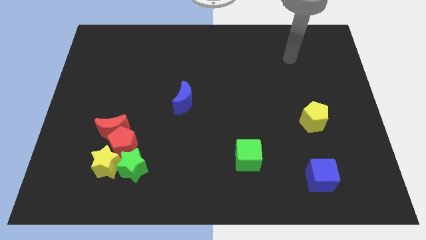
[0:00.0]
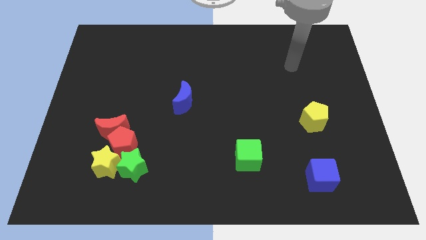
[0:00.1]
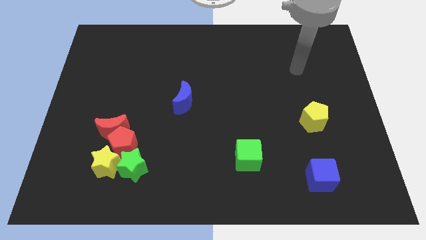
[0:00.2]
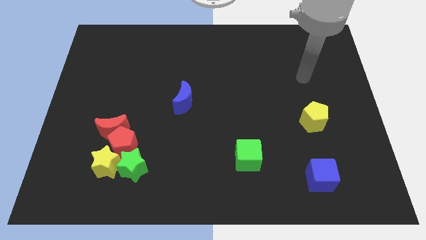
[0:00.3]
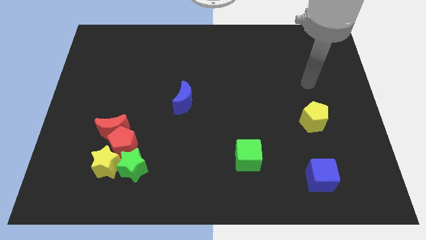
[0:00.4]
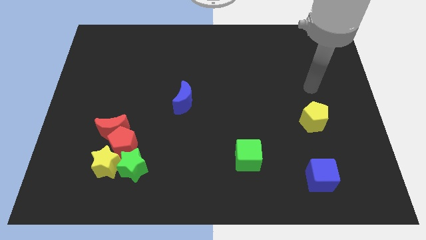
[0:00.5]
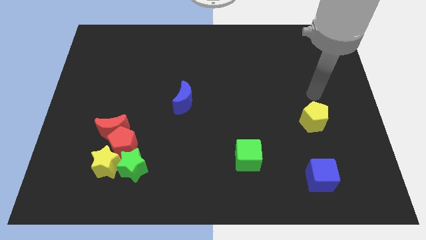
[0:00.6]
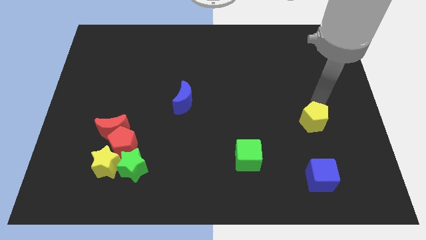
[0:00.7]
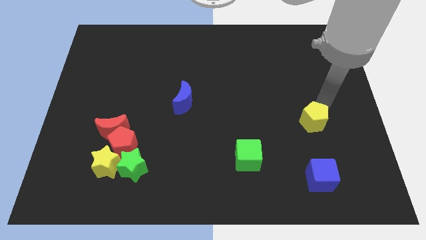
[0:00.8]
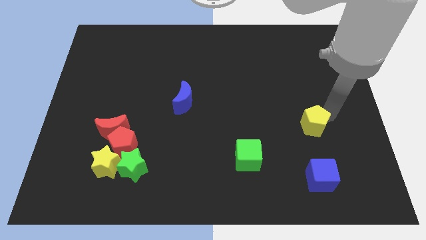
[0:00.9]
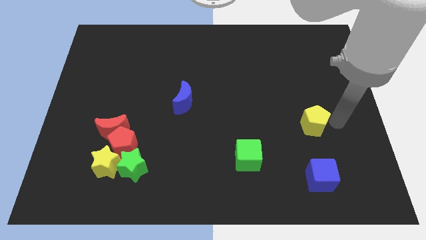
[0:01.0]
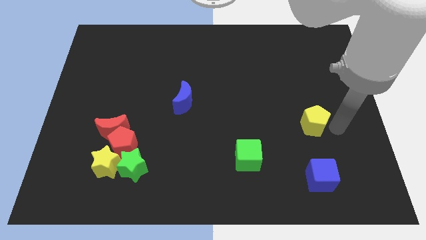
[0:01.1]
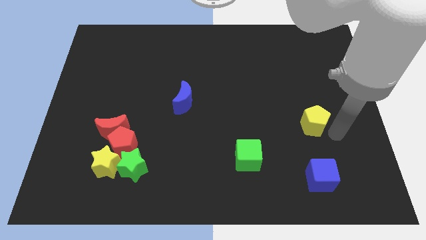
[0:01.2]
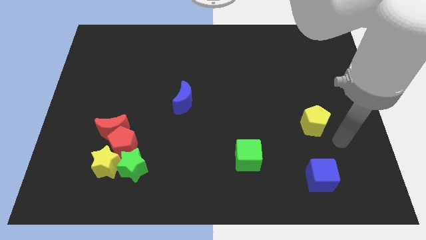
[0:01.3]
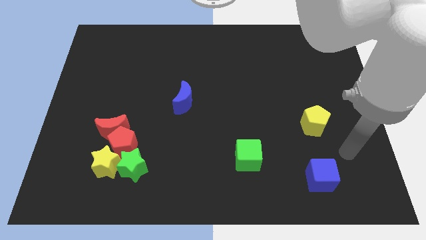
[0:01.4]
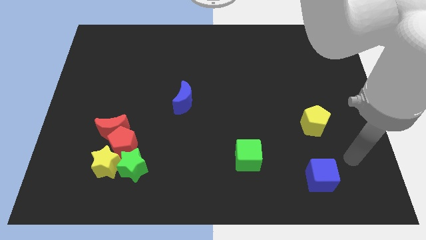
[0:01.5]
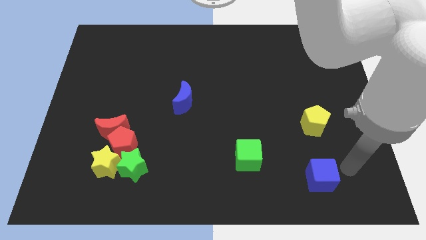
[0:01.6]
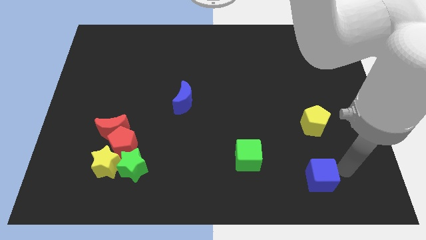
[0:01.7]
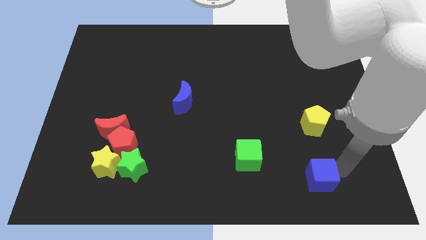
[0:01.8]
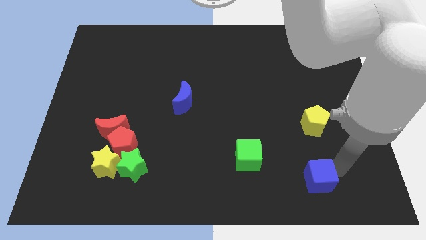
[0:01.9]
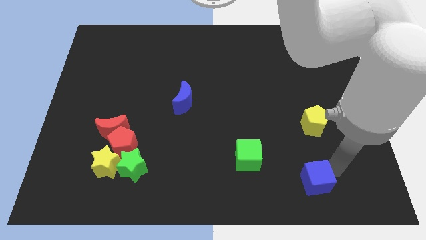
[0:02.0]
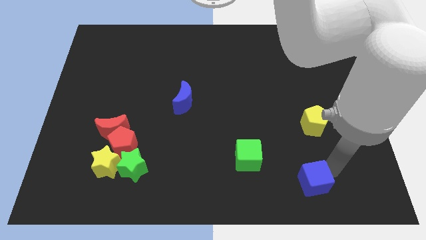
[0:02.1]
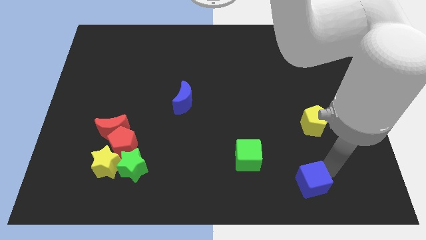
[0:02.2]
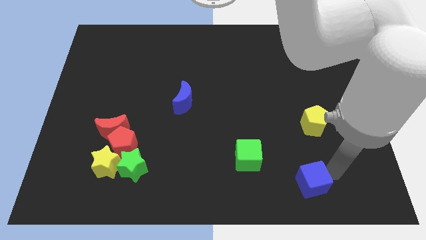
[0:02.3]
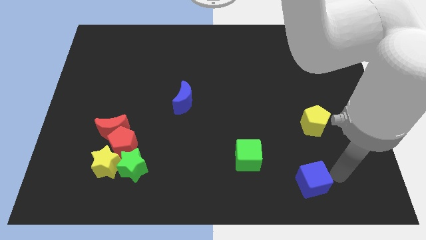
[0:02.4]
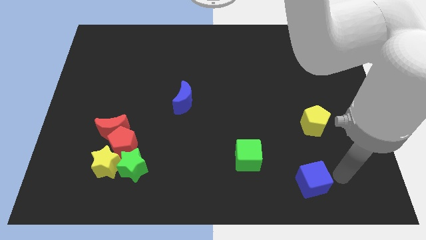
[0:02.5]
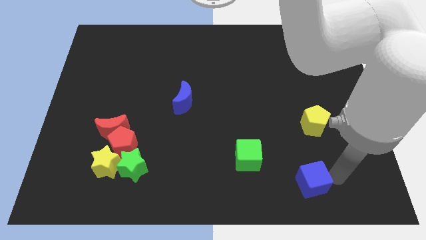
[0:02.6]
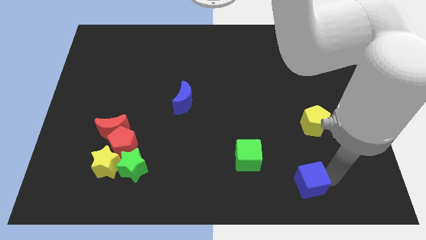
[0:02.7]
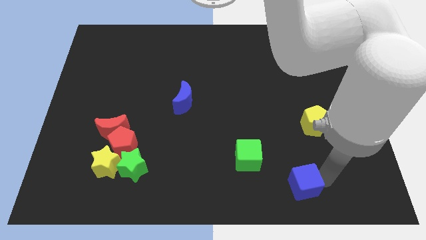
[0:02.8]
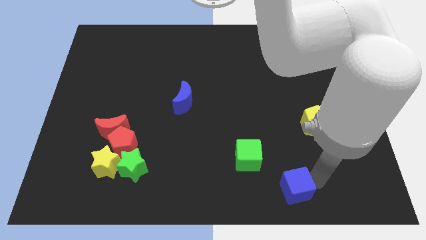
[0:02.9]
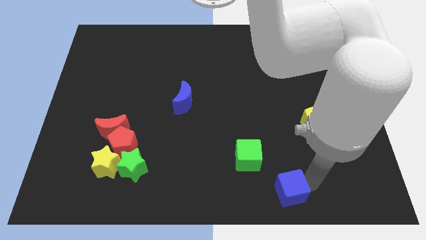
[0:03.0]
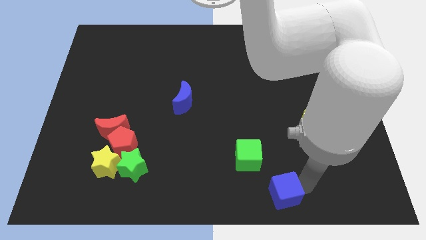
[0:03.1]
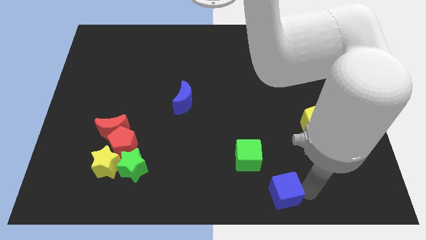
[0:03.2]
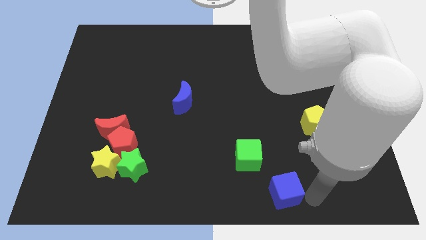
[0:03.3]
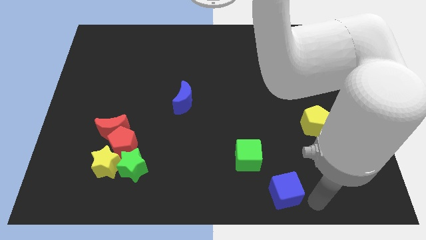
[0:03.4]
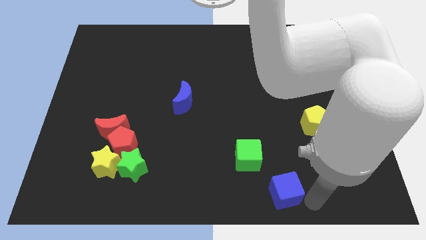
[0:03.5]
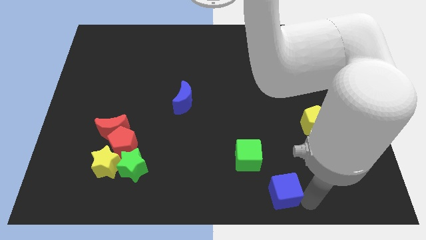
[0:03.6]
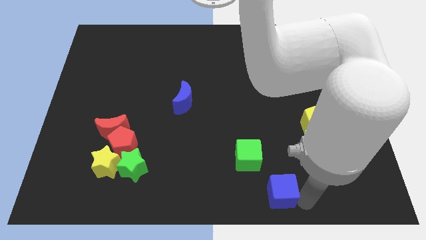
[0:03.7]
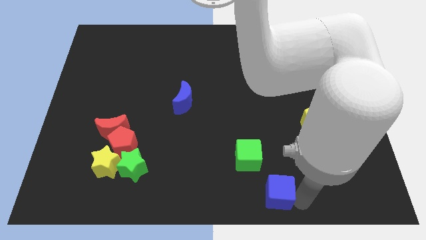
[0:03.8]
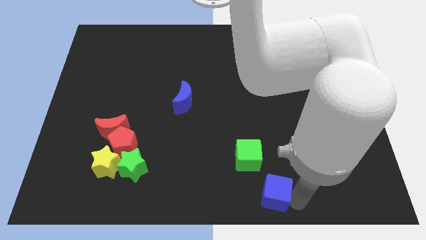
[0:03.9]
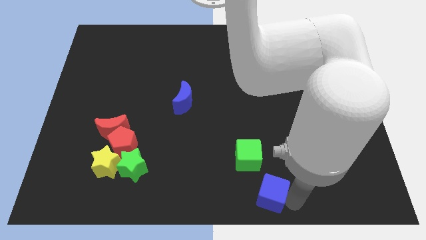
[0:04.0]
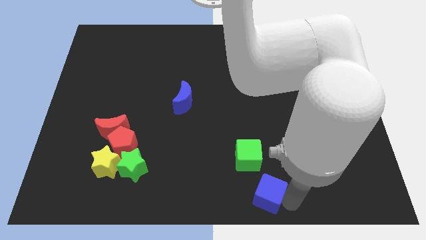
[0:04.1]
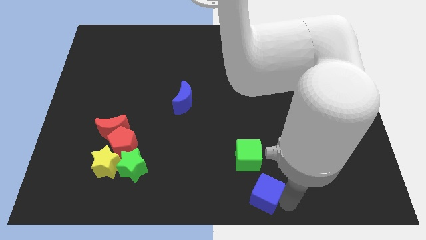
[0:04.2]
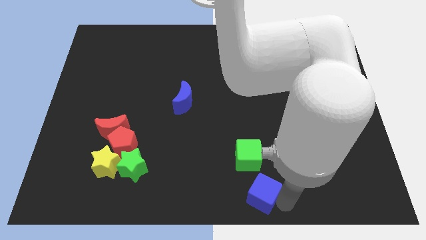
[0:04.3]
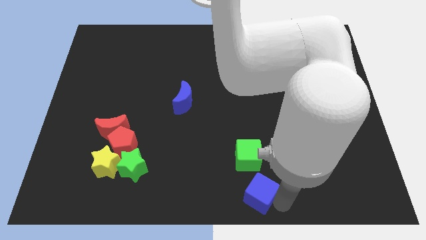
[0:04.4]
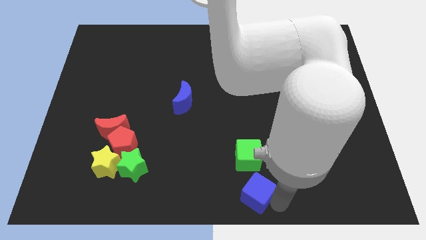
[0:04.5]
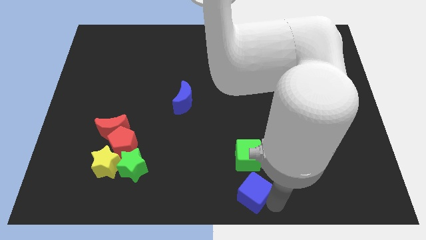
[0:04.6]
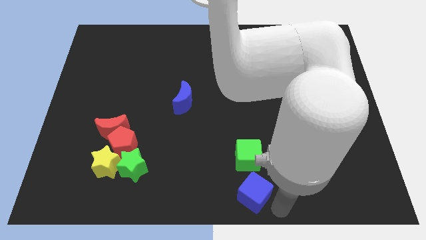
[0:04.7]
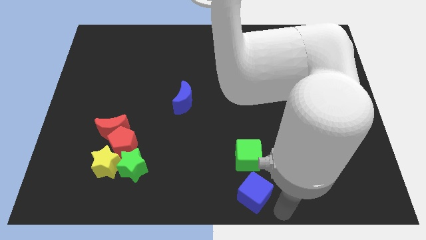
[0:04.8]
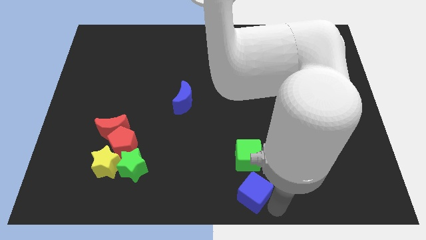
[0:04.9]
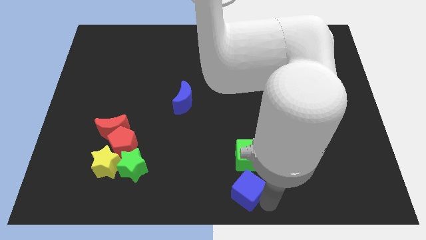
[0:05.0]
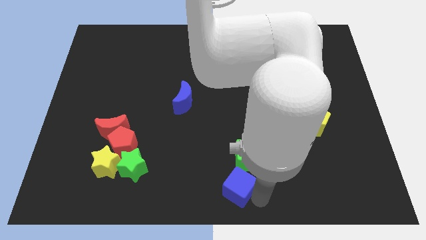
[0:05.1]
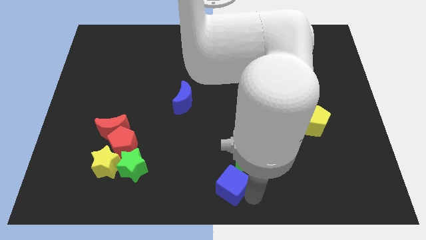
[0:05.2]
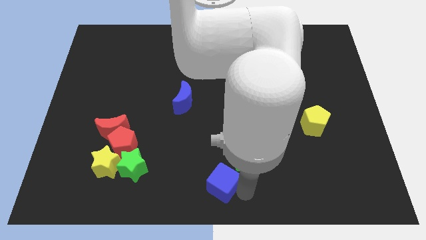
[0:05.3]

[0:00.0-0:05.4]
push the blue cube left

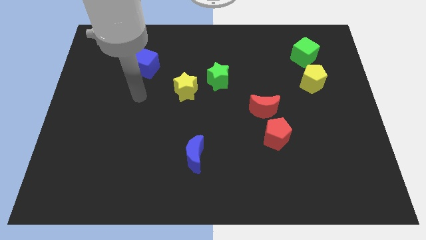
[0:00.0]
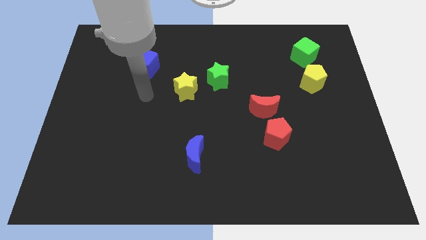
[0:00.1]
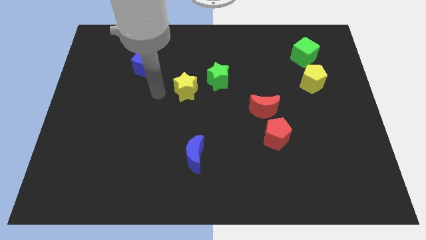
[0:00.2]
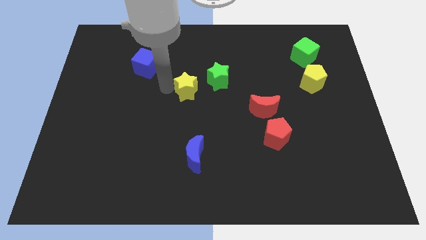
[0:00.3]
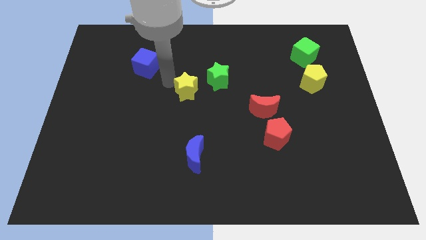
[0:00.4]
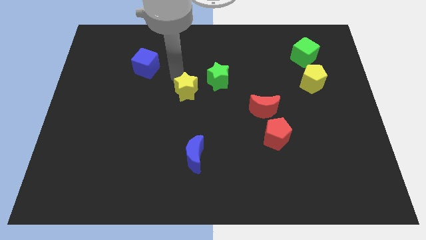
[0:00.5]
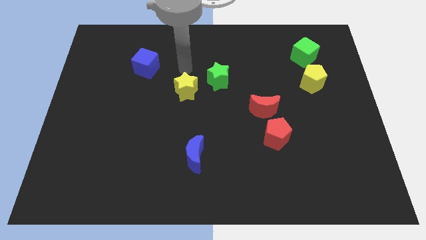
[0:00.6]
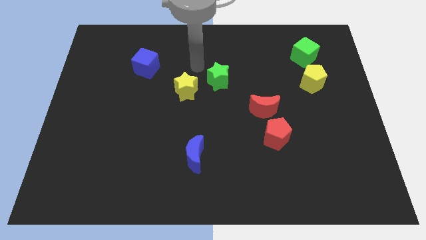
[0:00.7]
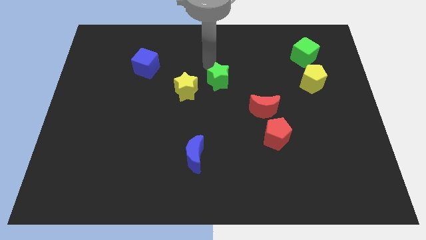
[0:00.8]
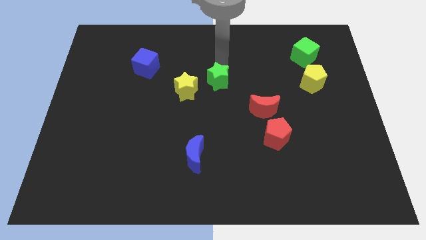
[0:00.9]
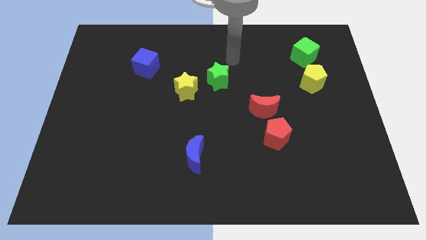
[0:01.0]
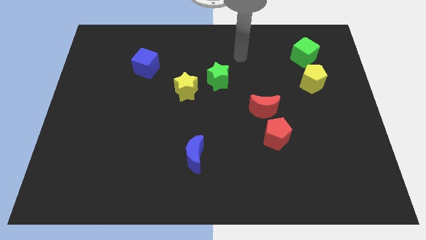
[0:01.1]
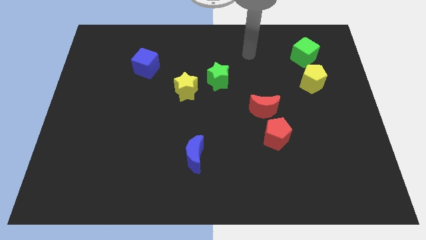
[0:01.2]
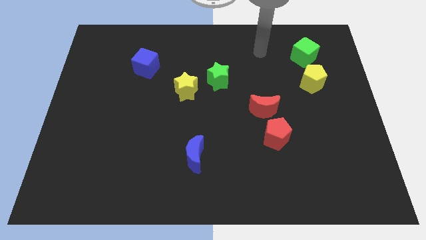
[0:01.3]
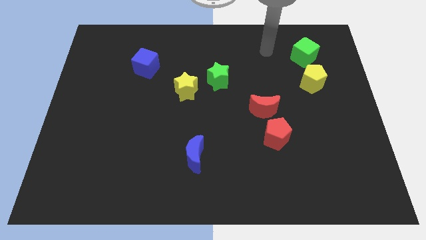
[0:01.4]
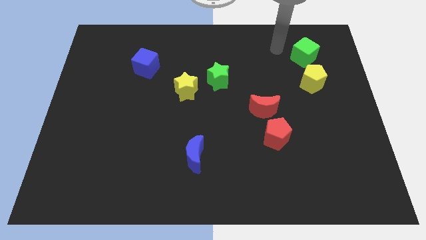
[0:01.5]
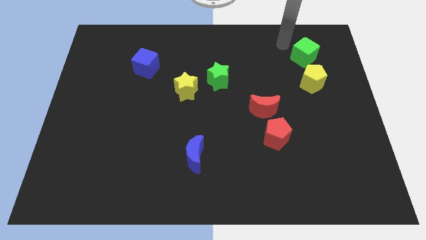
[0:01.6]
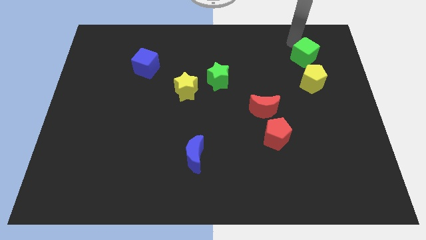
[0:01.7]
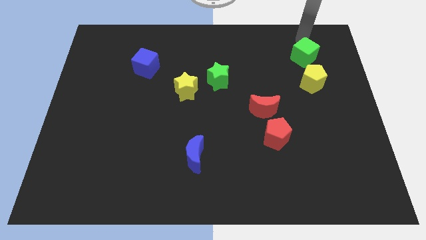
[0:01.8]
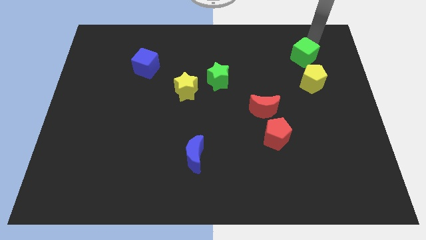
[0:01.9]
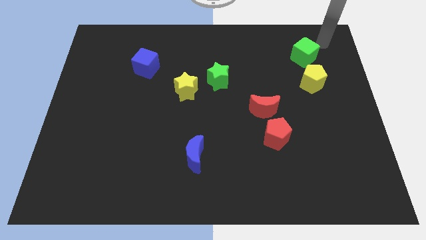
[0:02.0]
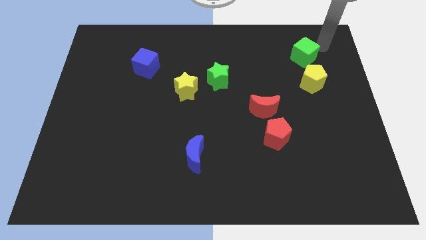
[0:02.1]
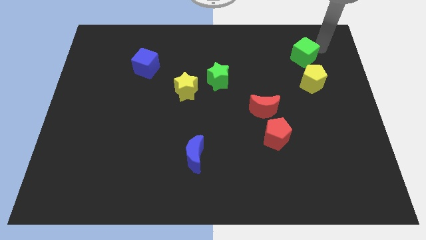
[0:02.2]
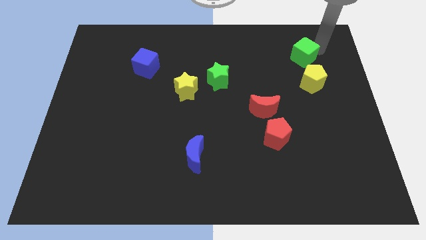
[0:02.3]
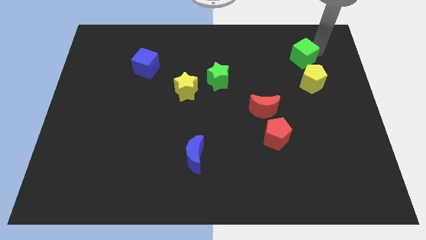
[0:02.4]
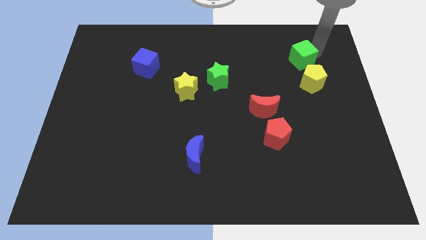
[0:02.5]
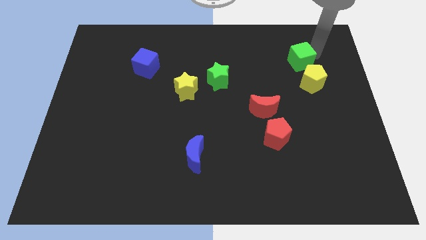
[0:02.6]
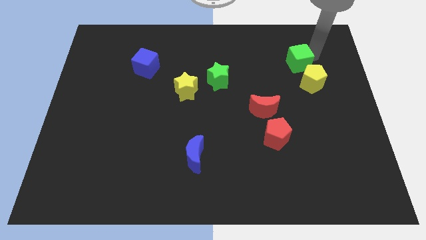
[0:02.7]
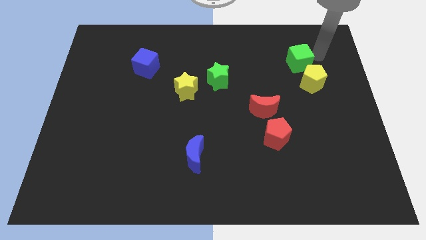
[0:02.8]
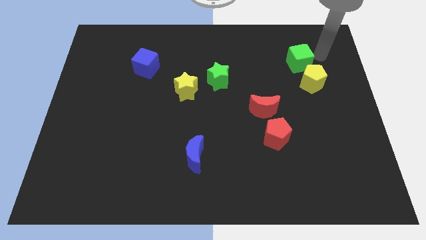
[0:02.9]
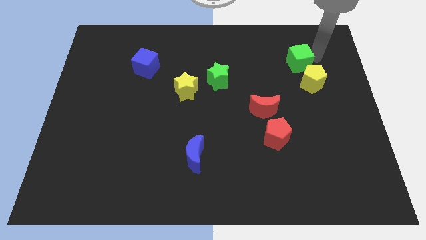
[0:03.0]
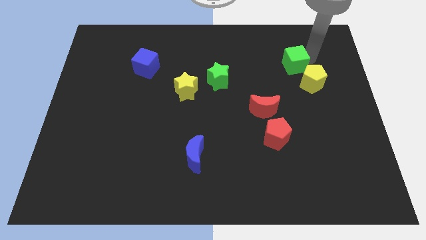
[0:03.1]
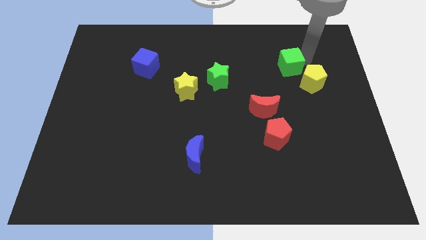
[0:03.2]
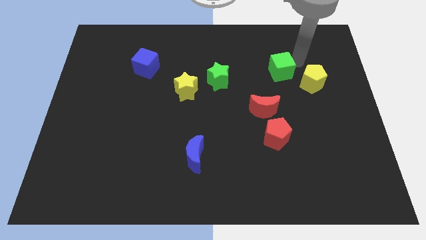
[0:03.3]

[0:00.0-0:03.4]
push the green cube downwards and then left a little bit
